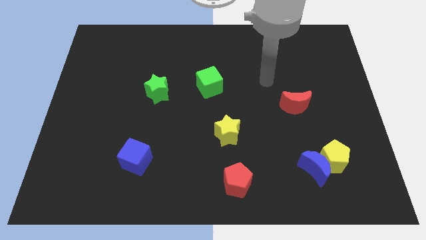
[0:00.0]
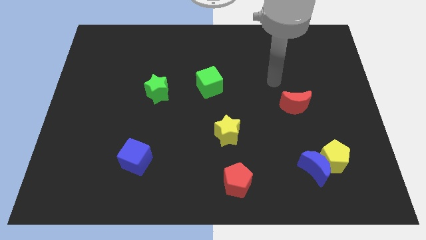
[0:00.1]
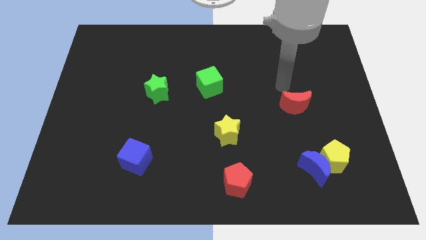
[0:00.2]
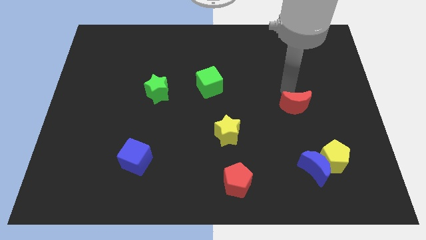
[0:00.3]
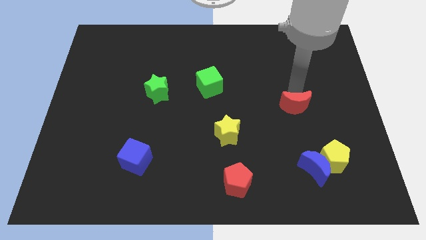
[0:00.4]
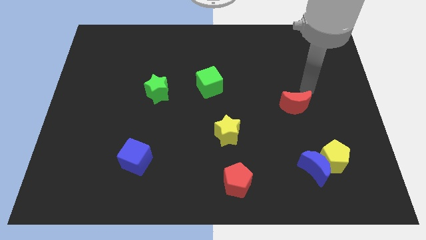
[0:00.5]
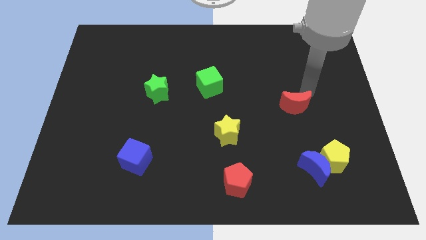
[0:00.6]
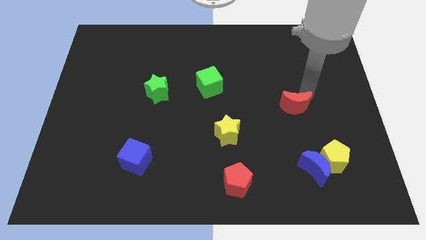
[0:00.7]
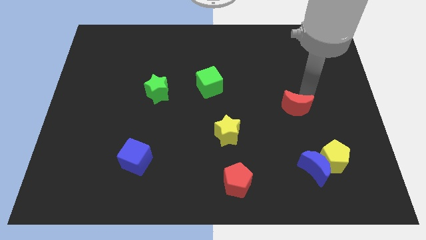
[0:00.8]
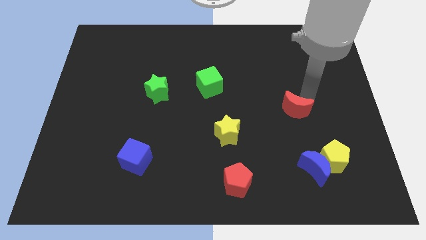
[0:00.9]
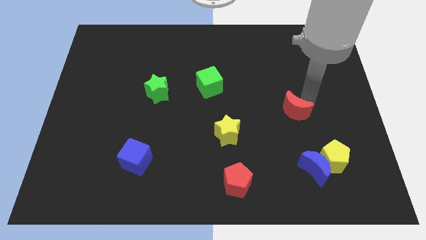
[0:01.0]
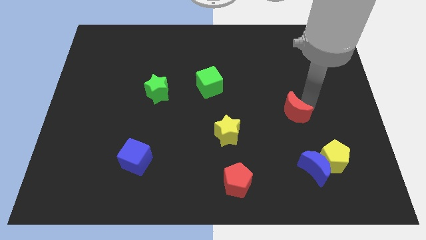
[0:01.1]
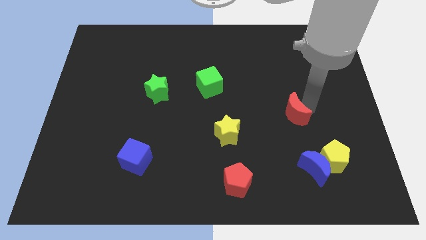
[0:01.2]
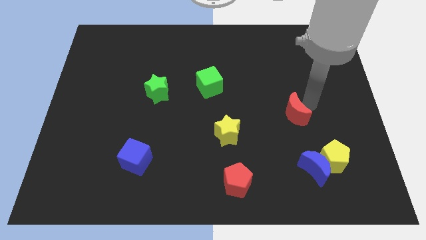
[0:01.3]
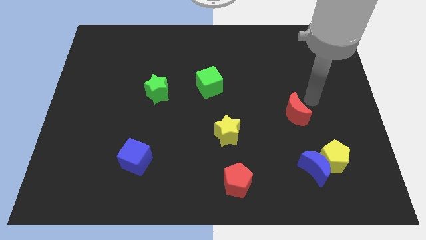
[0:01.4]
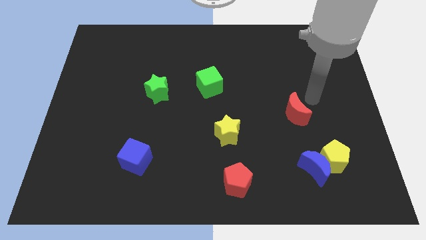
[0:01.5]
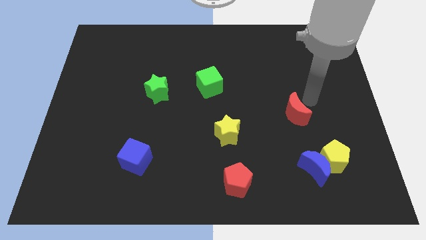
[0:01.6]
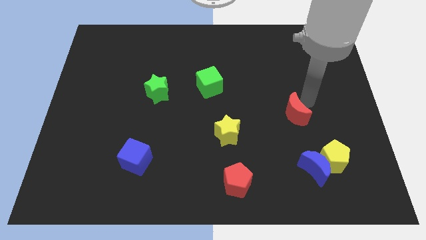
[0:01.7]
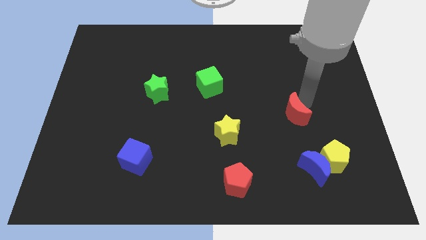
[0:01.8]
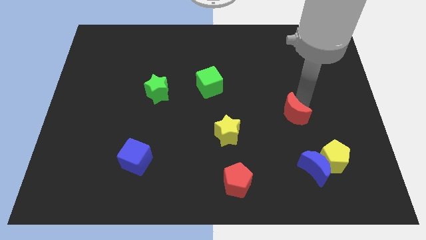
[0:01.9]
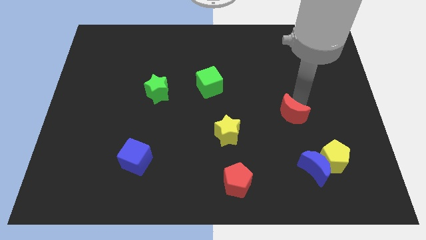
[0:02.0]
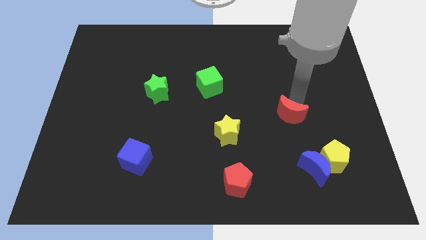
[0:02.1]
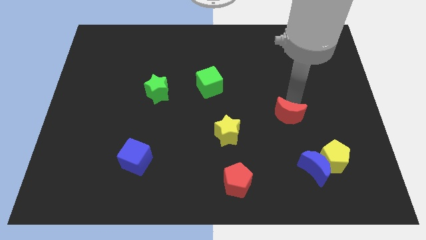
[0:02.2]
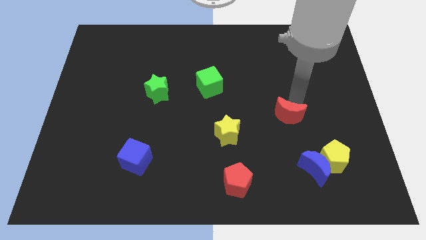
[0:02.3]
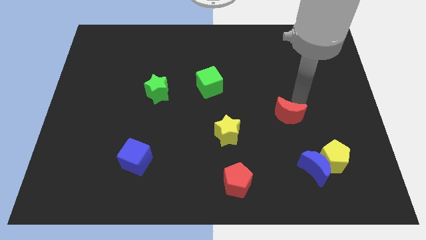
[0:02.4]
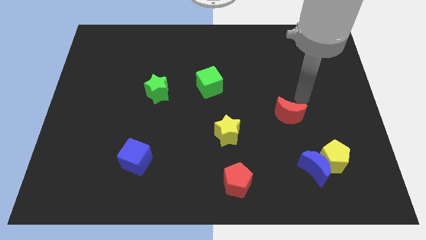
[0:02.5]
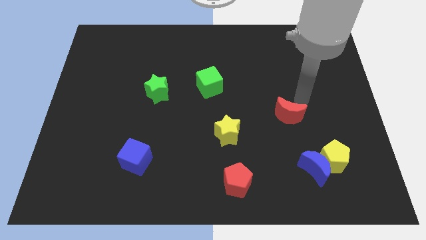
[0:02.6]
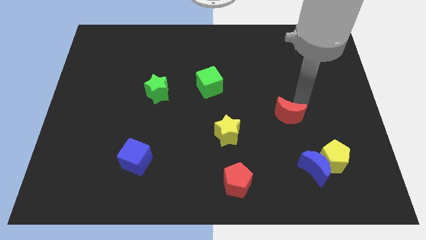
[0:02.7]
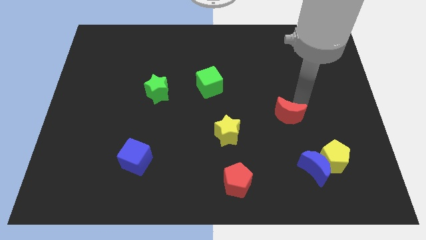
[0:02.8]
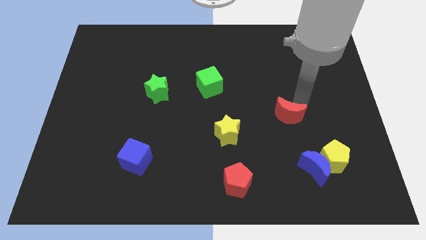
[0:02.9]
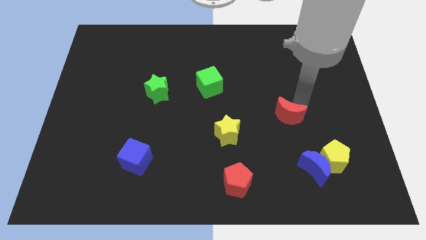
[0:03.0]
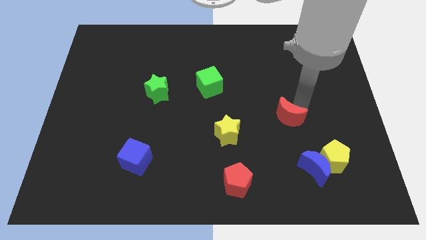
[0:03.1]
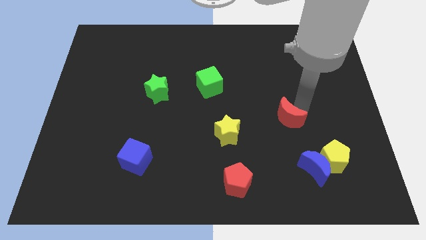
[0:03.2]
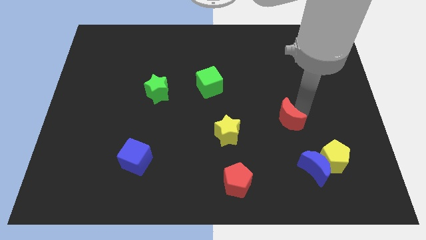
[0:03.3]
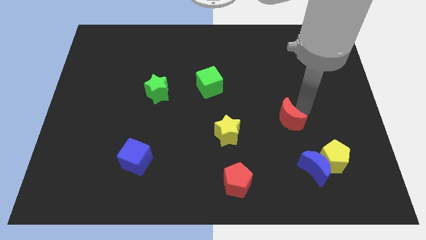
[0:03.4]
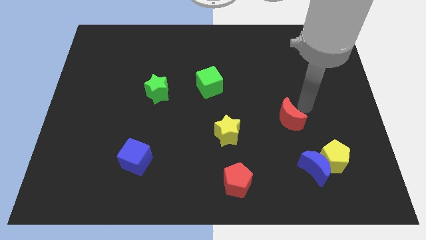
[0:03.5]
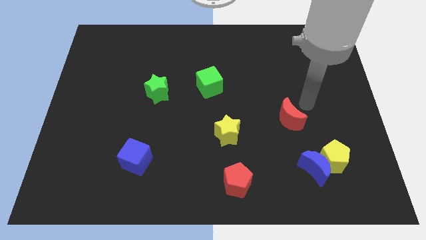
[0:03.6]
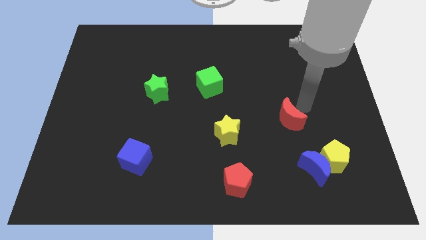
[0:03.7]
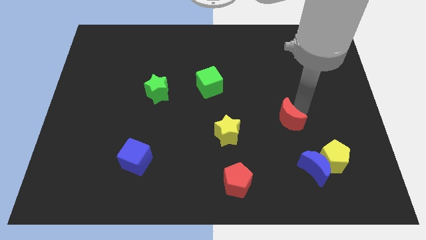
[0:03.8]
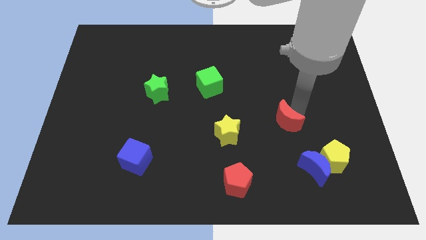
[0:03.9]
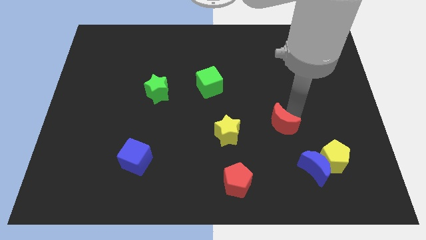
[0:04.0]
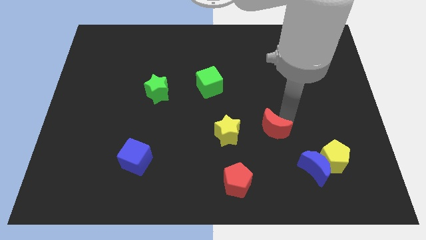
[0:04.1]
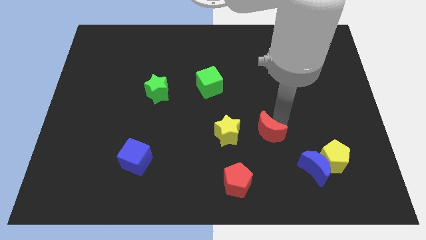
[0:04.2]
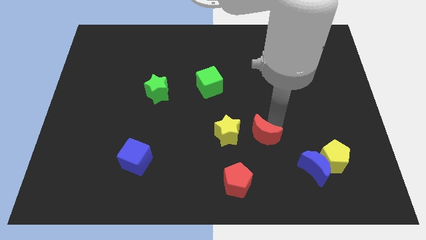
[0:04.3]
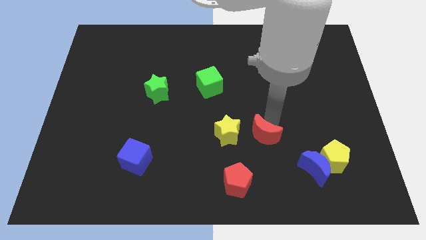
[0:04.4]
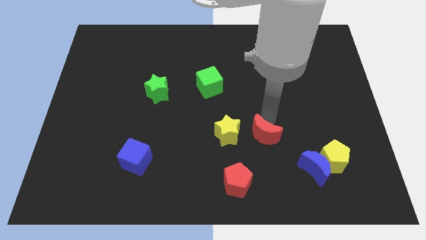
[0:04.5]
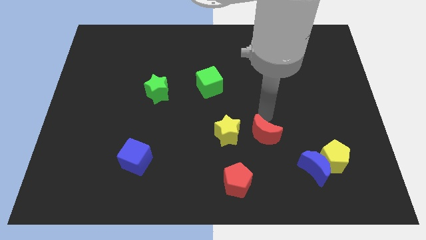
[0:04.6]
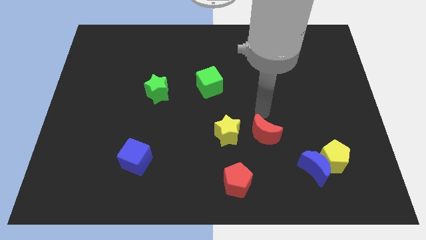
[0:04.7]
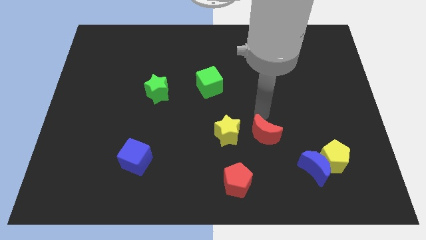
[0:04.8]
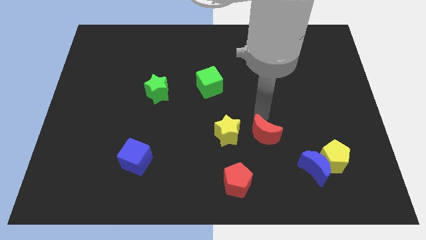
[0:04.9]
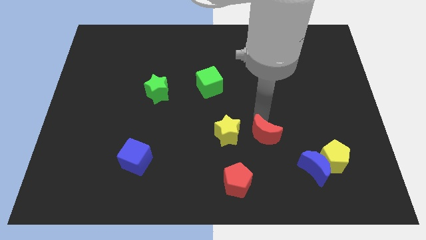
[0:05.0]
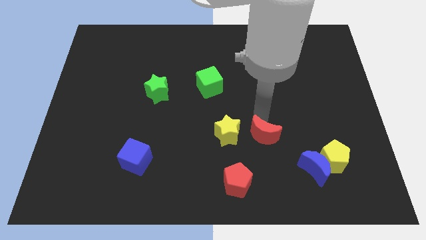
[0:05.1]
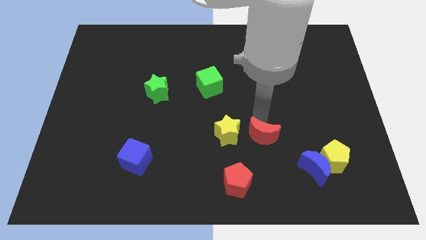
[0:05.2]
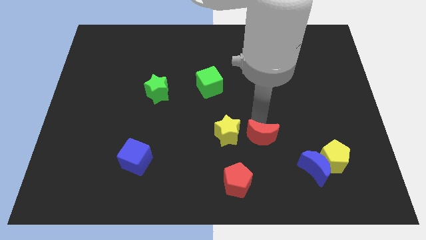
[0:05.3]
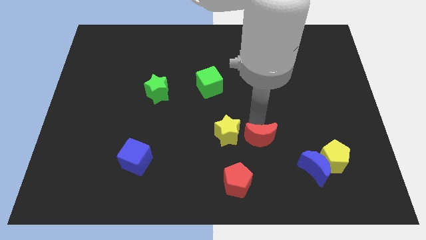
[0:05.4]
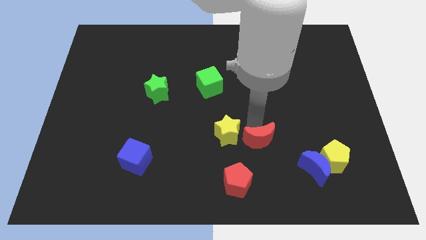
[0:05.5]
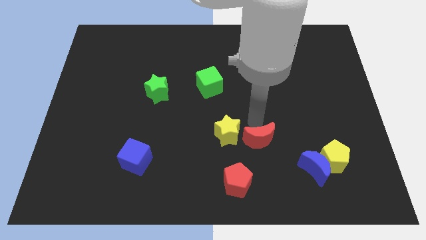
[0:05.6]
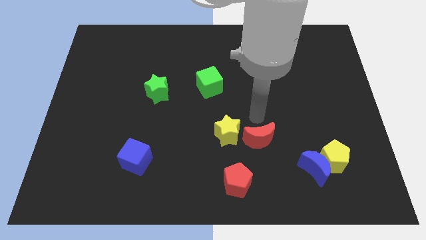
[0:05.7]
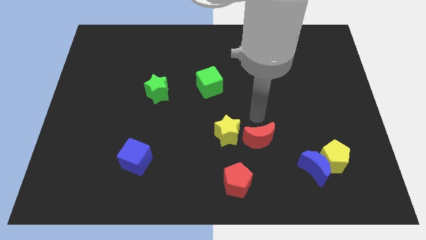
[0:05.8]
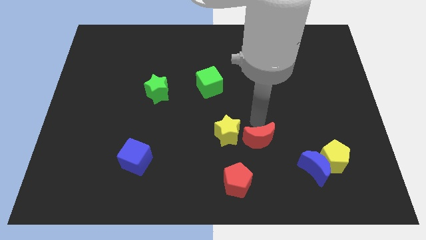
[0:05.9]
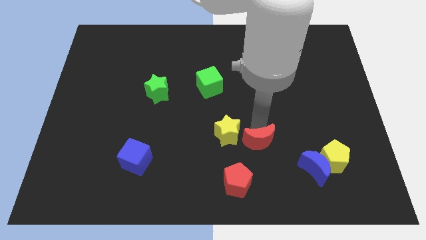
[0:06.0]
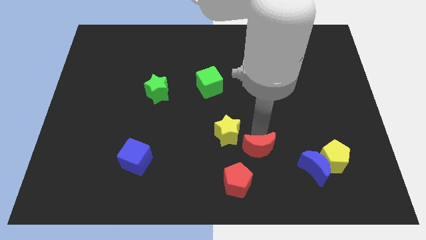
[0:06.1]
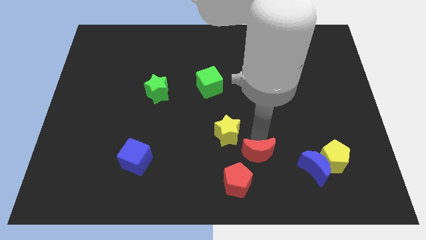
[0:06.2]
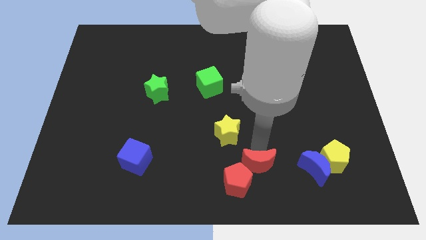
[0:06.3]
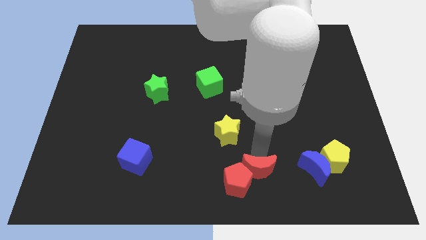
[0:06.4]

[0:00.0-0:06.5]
move the red moon to the bottom
